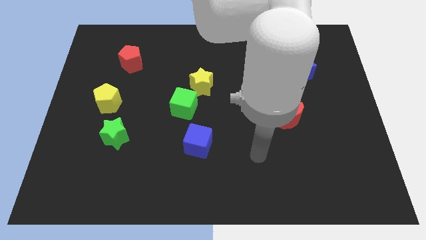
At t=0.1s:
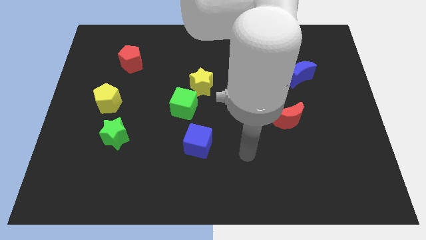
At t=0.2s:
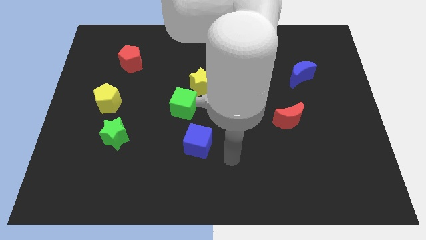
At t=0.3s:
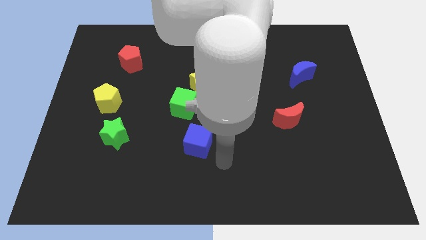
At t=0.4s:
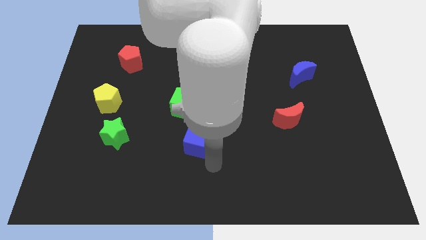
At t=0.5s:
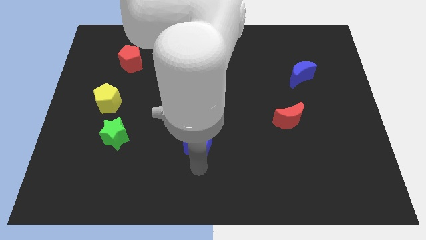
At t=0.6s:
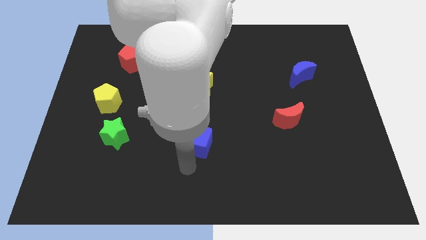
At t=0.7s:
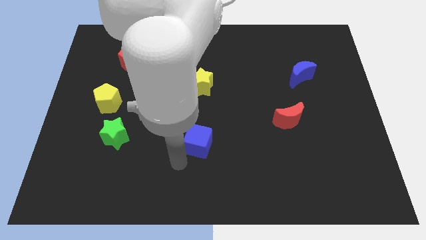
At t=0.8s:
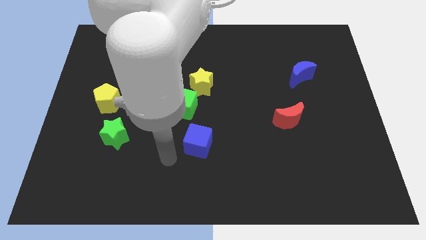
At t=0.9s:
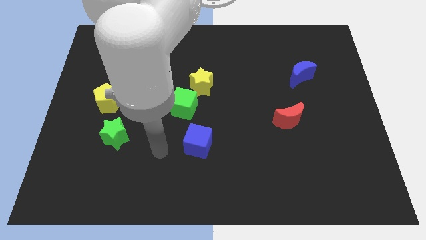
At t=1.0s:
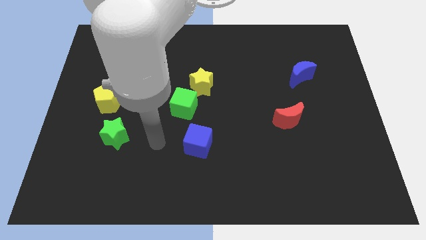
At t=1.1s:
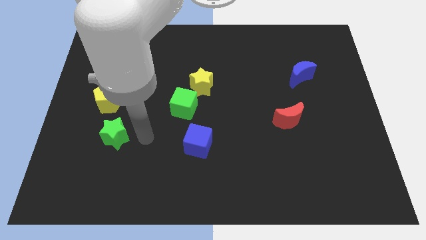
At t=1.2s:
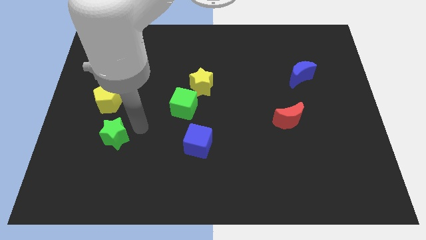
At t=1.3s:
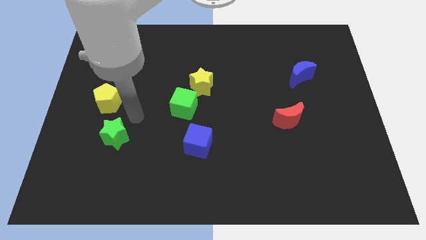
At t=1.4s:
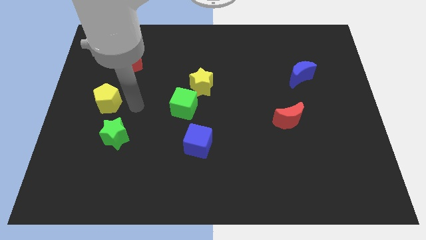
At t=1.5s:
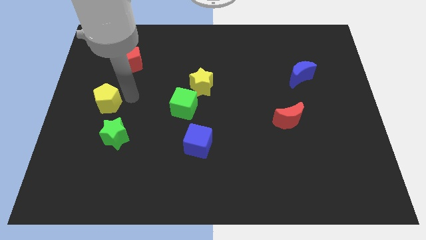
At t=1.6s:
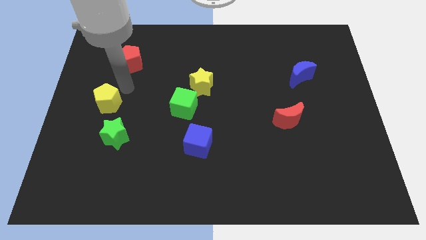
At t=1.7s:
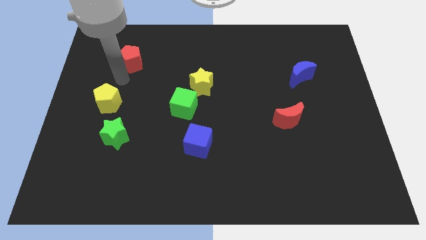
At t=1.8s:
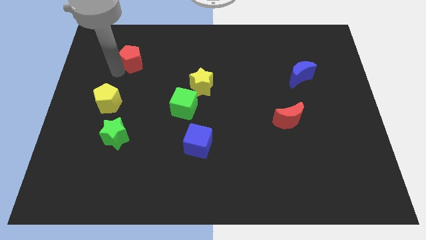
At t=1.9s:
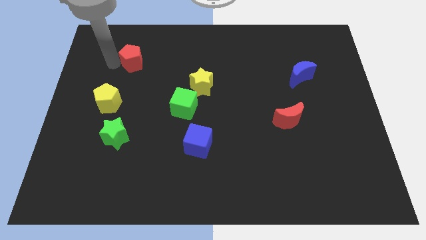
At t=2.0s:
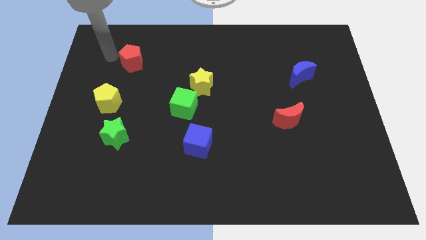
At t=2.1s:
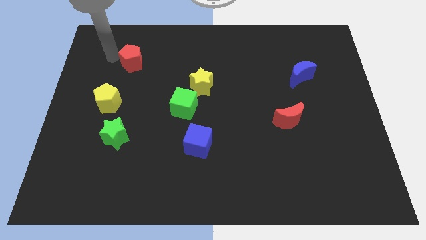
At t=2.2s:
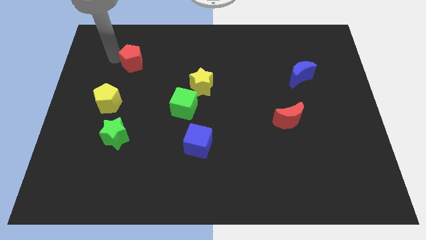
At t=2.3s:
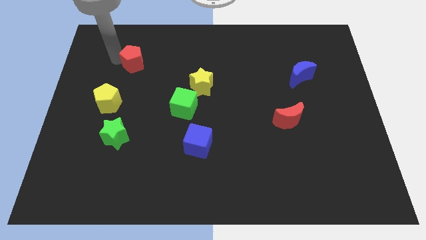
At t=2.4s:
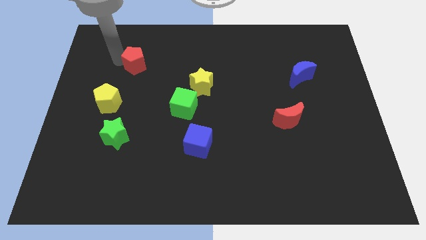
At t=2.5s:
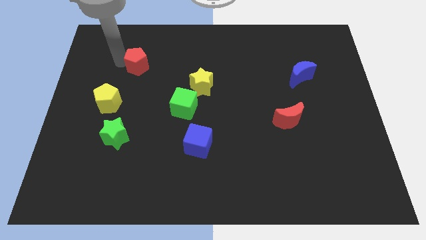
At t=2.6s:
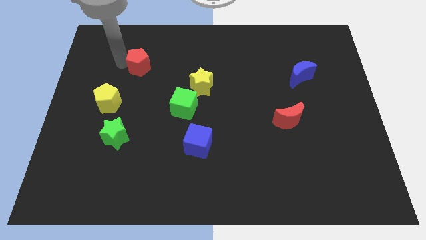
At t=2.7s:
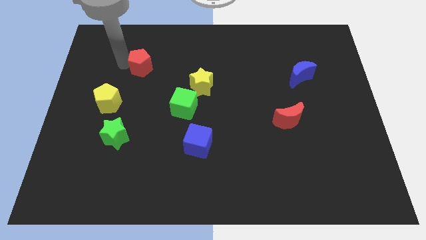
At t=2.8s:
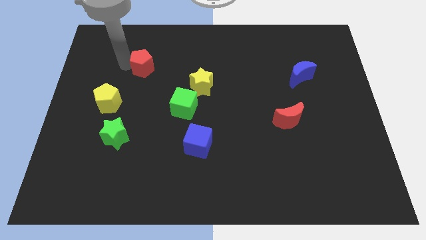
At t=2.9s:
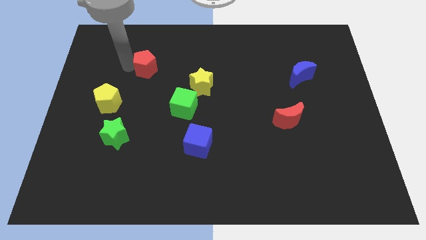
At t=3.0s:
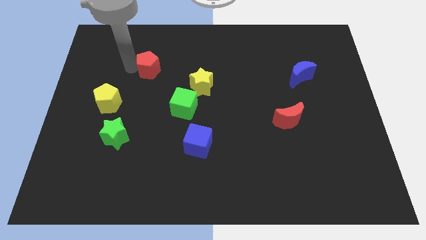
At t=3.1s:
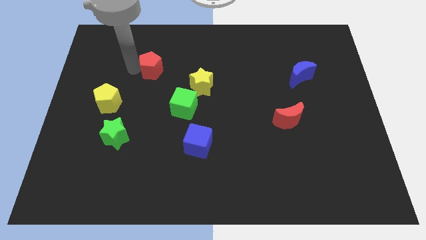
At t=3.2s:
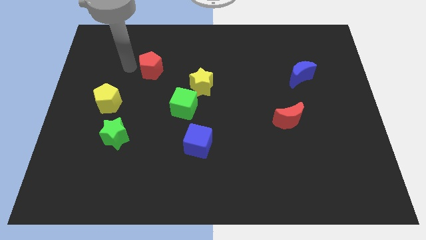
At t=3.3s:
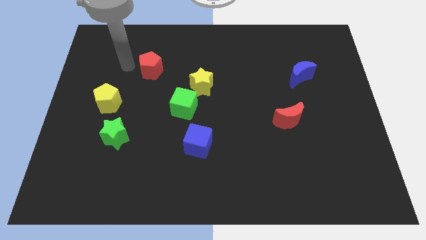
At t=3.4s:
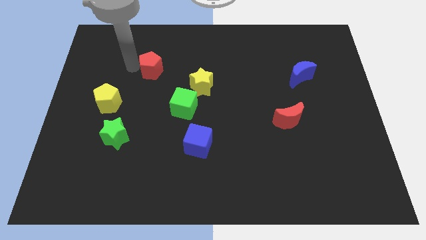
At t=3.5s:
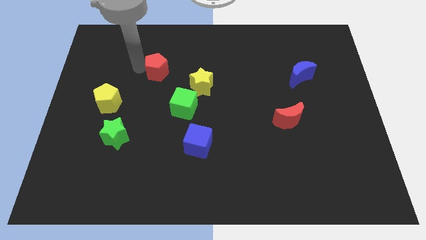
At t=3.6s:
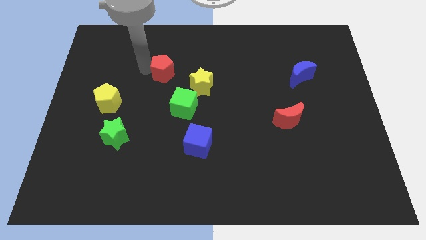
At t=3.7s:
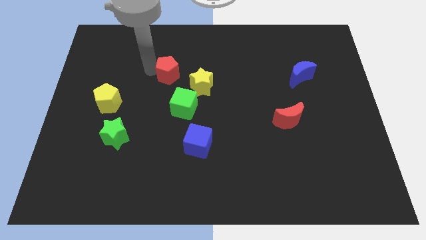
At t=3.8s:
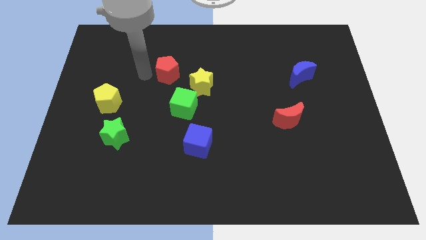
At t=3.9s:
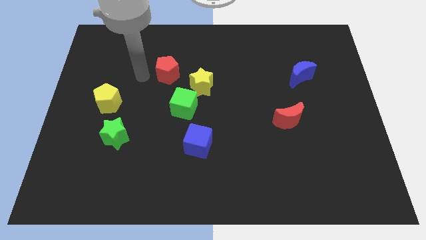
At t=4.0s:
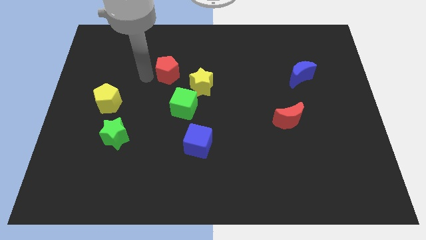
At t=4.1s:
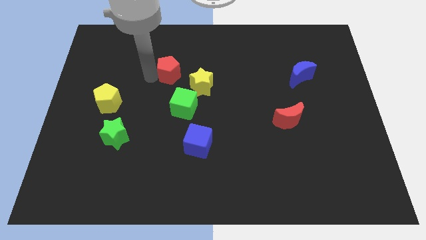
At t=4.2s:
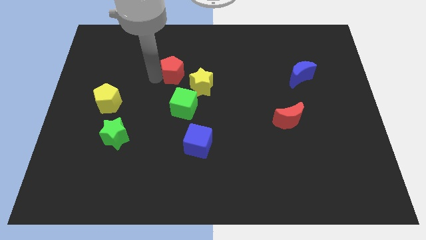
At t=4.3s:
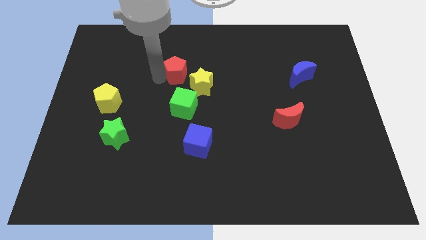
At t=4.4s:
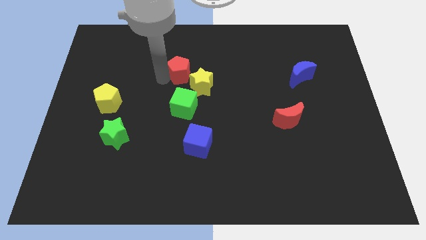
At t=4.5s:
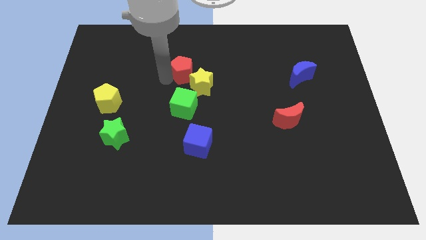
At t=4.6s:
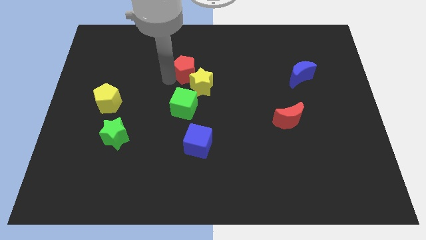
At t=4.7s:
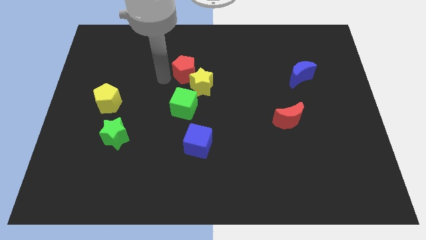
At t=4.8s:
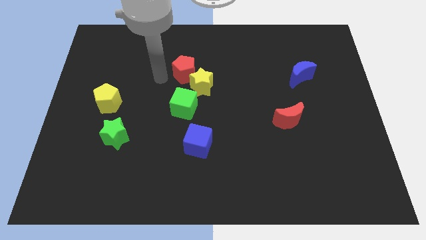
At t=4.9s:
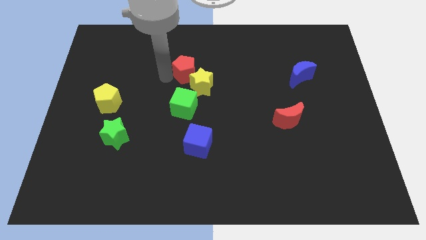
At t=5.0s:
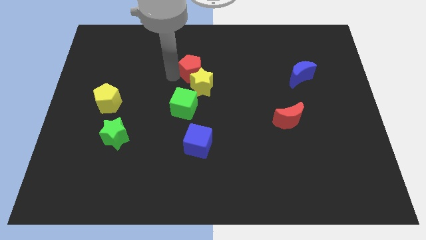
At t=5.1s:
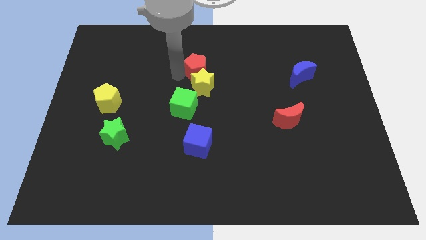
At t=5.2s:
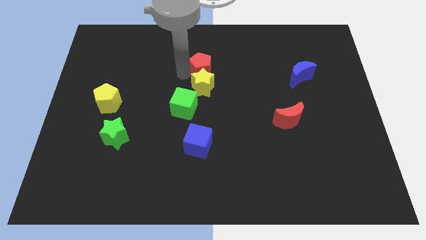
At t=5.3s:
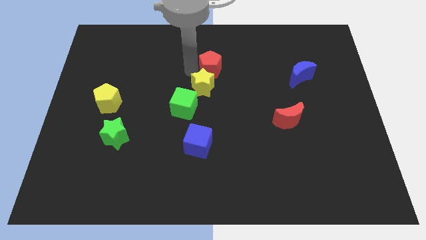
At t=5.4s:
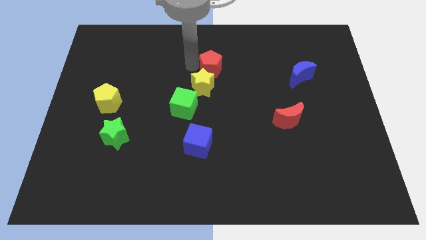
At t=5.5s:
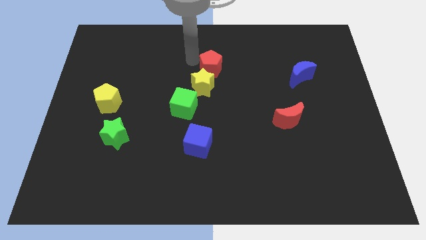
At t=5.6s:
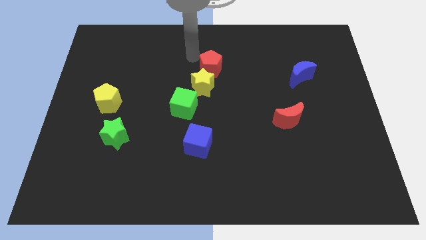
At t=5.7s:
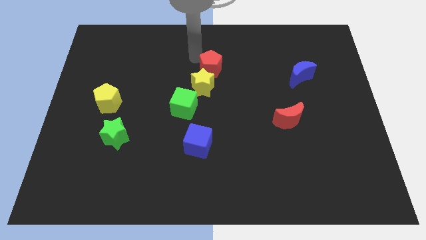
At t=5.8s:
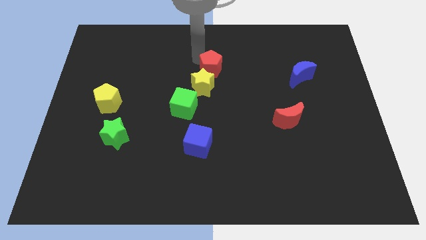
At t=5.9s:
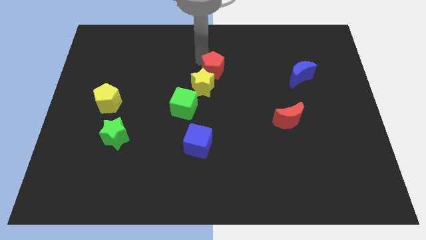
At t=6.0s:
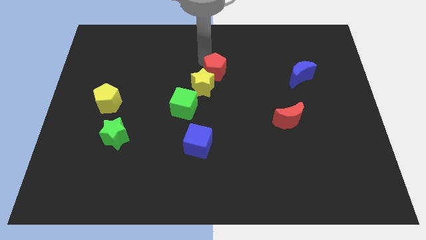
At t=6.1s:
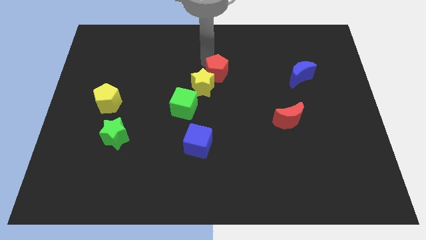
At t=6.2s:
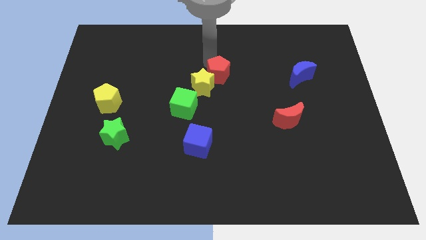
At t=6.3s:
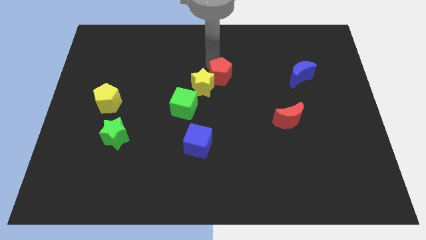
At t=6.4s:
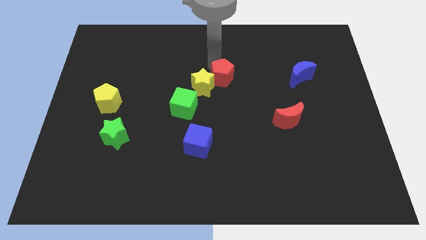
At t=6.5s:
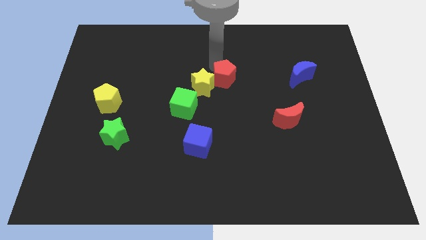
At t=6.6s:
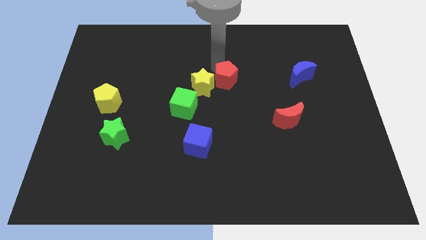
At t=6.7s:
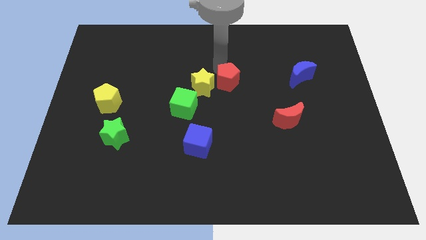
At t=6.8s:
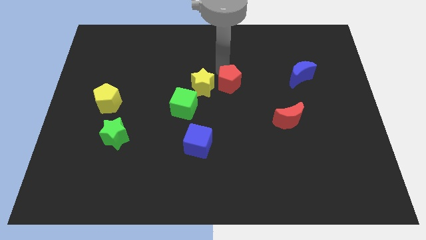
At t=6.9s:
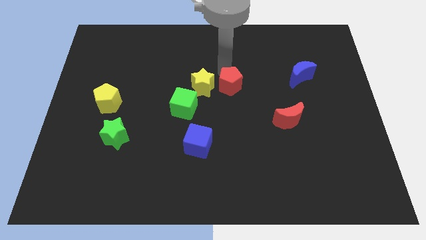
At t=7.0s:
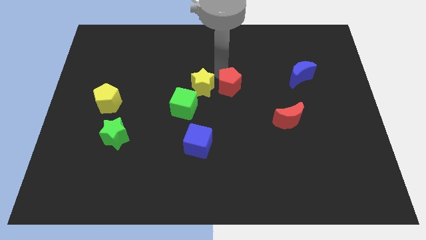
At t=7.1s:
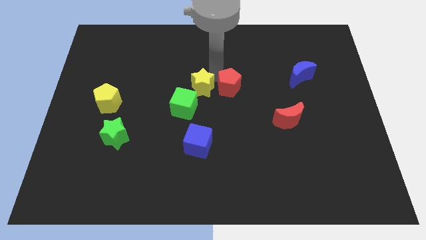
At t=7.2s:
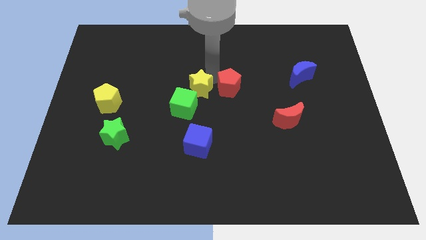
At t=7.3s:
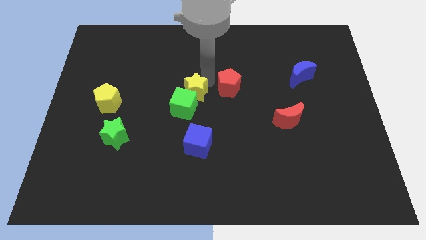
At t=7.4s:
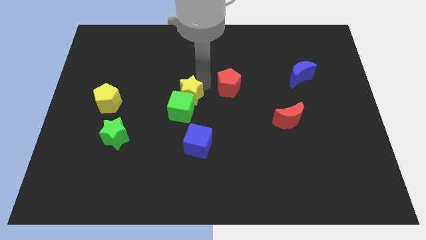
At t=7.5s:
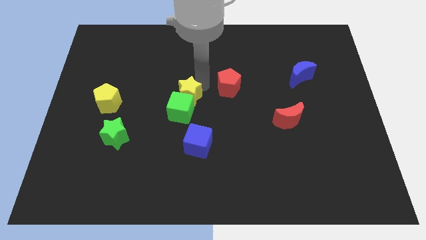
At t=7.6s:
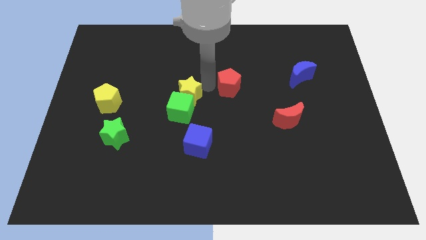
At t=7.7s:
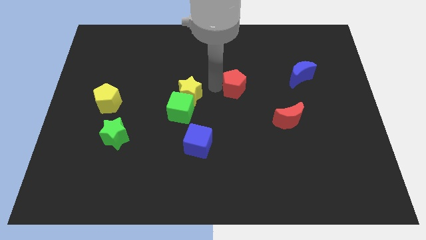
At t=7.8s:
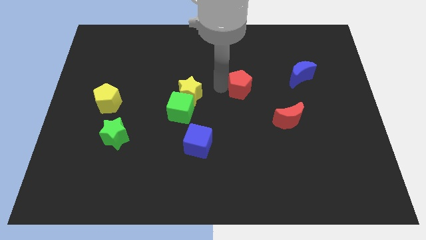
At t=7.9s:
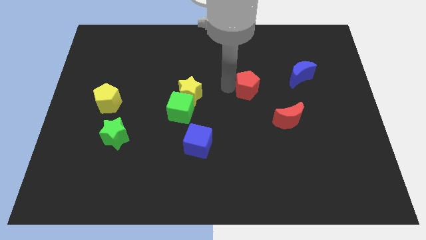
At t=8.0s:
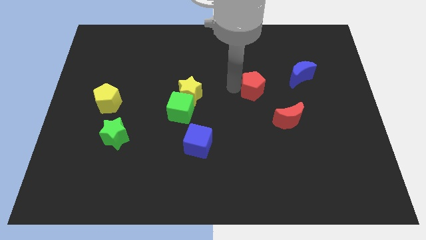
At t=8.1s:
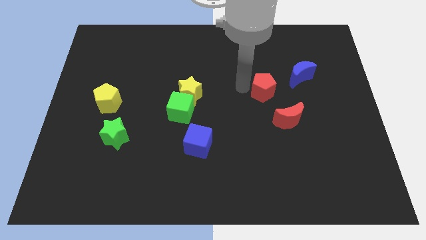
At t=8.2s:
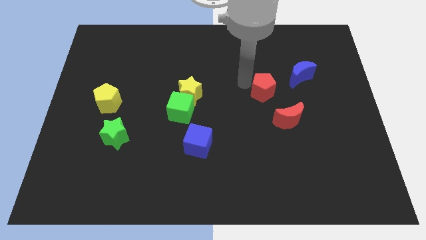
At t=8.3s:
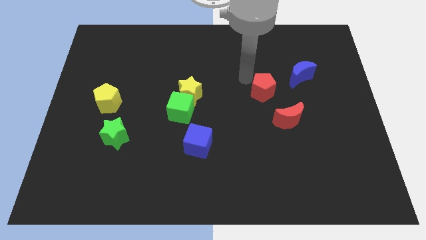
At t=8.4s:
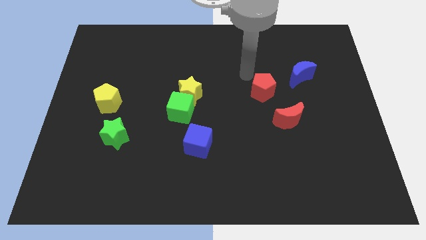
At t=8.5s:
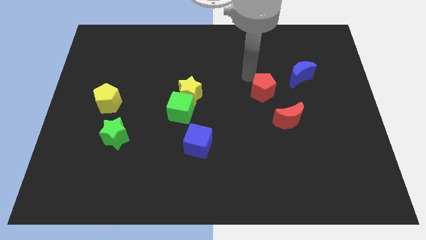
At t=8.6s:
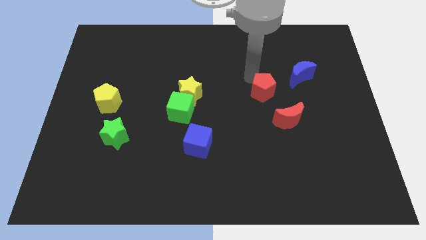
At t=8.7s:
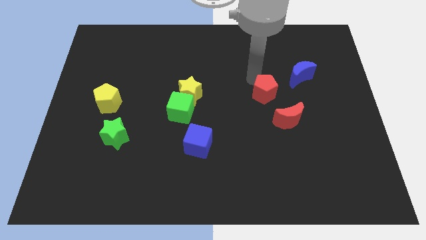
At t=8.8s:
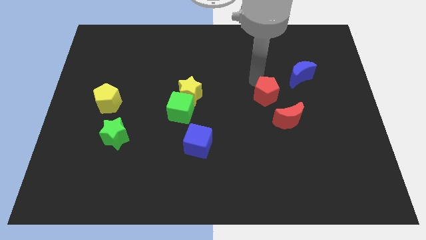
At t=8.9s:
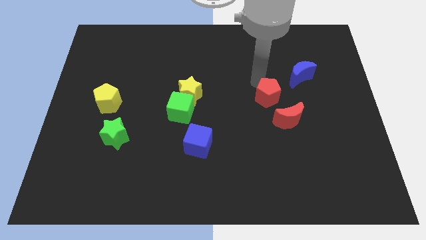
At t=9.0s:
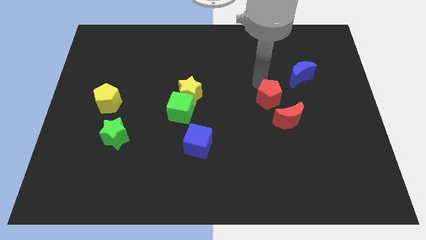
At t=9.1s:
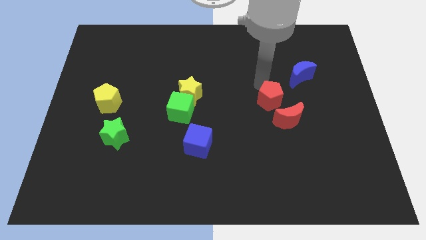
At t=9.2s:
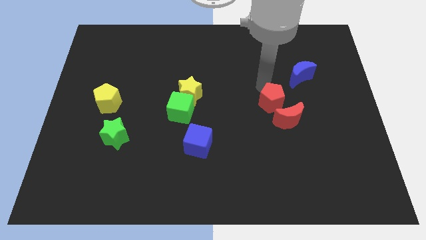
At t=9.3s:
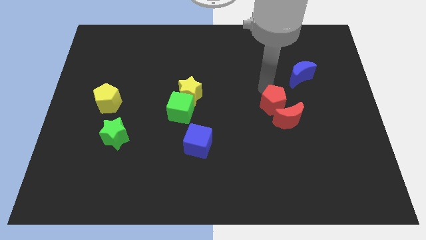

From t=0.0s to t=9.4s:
put the red pentagon towards the red moon
